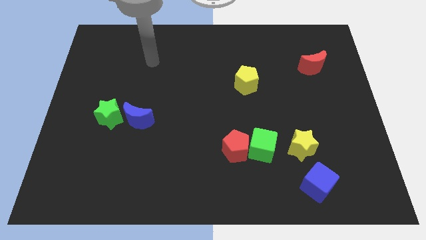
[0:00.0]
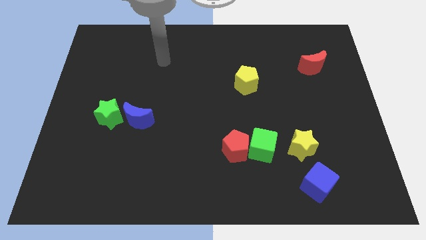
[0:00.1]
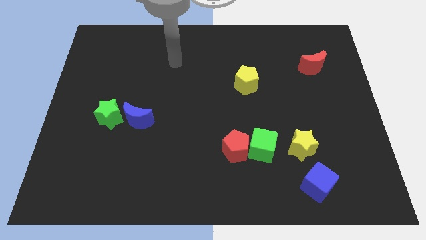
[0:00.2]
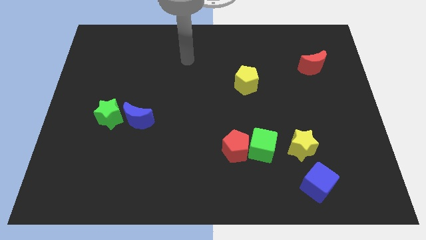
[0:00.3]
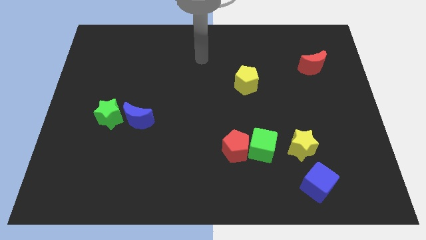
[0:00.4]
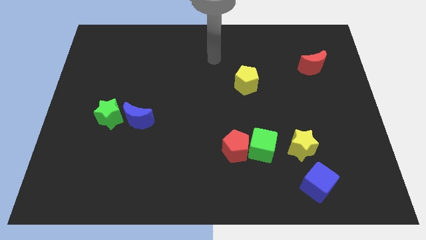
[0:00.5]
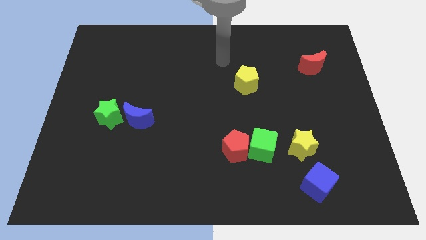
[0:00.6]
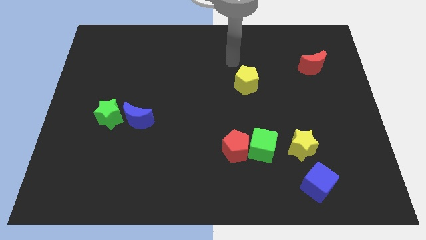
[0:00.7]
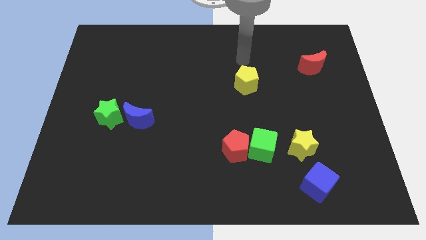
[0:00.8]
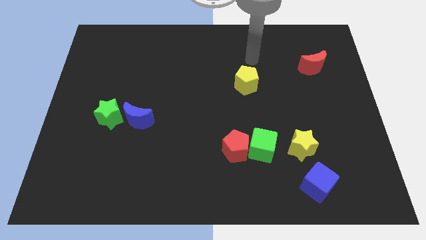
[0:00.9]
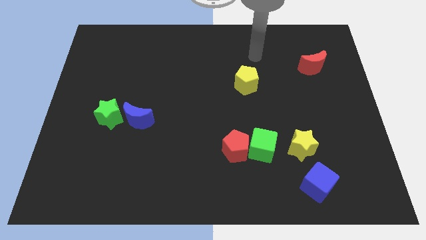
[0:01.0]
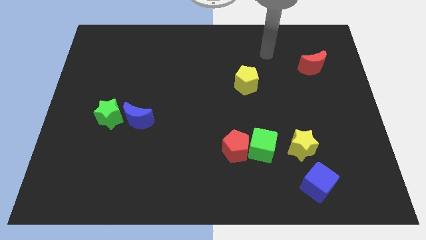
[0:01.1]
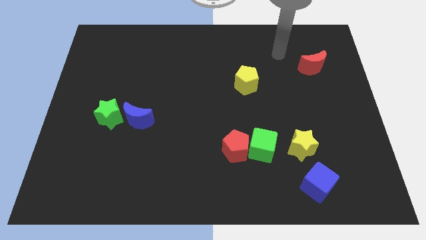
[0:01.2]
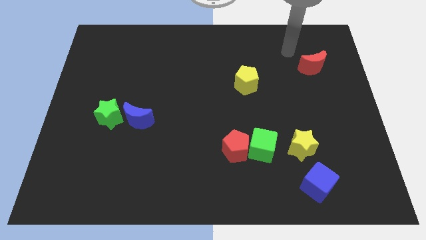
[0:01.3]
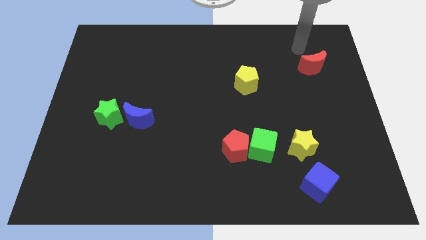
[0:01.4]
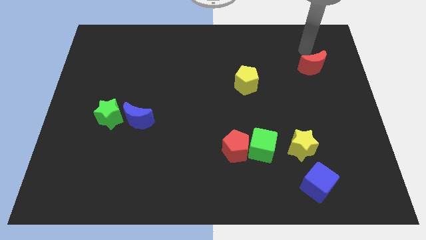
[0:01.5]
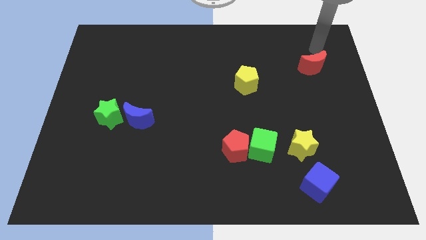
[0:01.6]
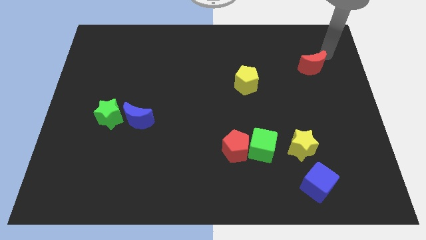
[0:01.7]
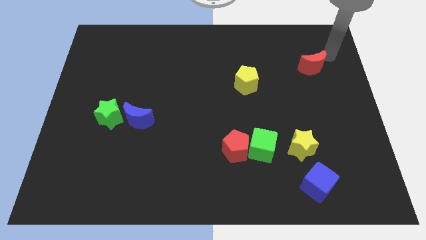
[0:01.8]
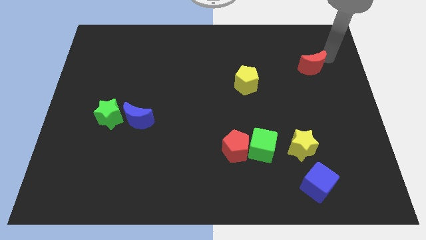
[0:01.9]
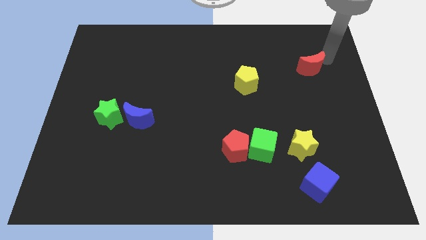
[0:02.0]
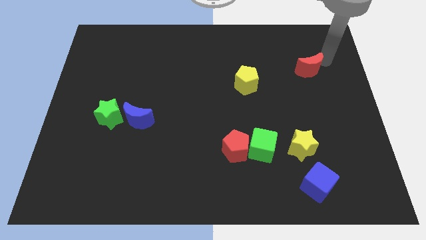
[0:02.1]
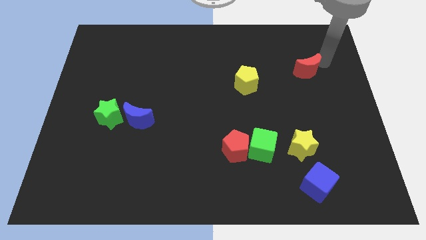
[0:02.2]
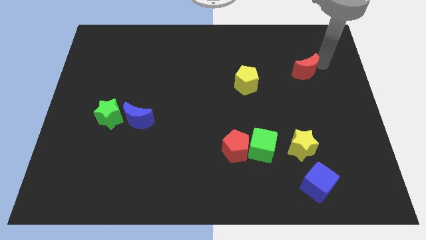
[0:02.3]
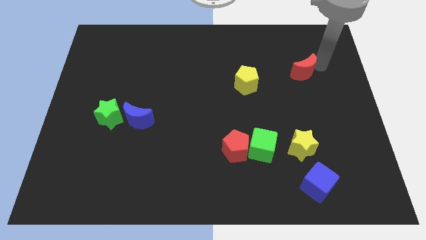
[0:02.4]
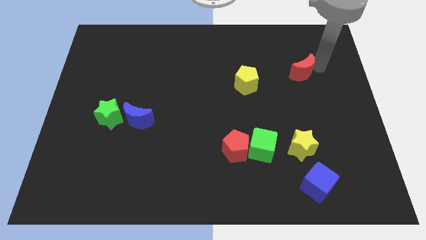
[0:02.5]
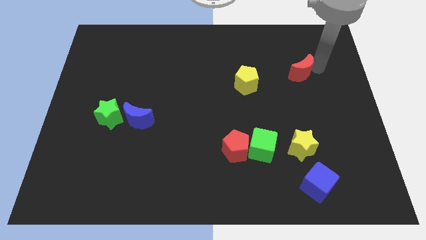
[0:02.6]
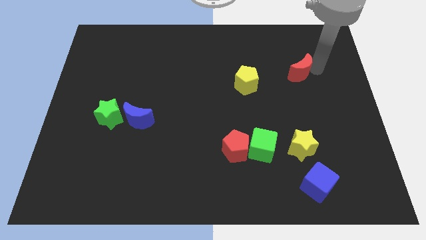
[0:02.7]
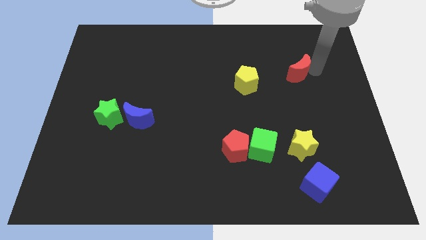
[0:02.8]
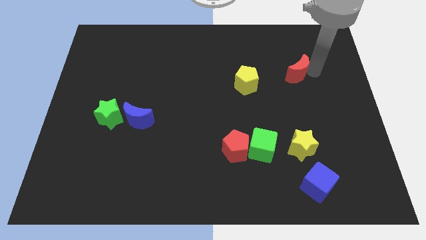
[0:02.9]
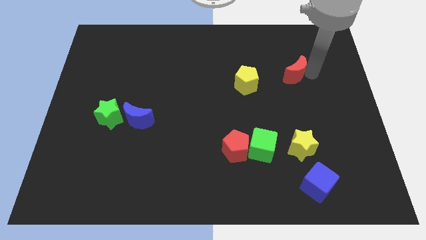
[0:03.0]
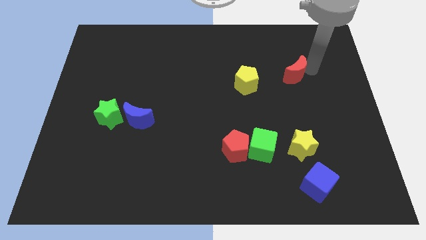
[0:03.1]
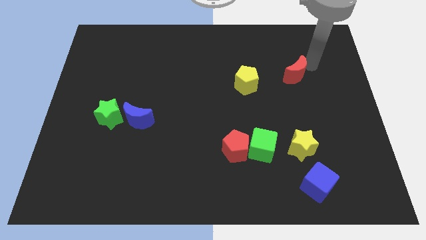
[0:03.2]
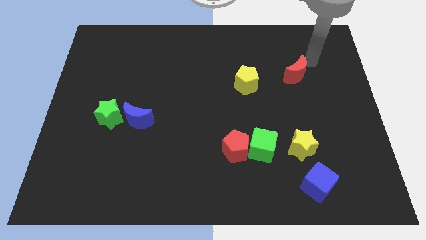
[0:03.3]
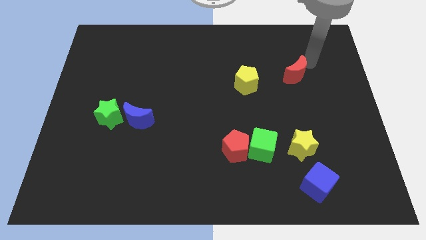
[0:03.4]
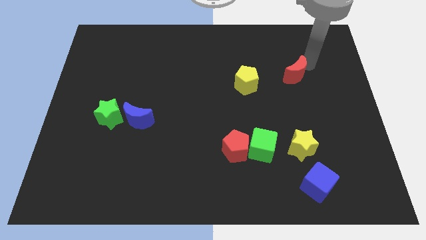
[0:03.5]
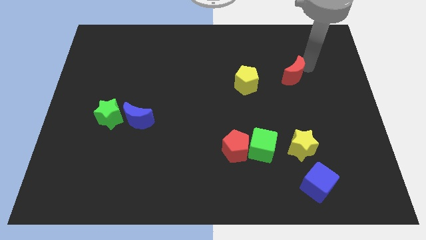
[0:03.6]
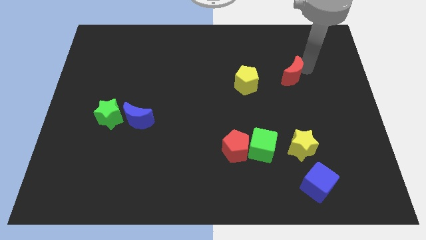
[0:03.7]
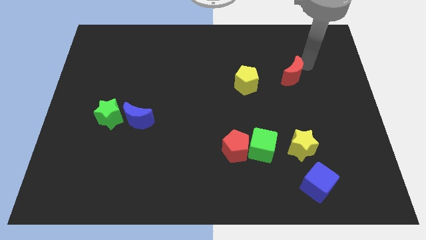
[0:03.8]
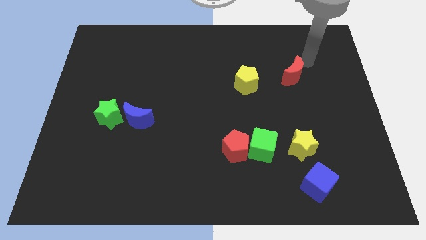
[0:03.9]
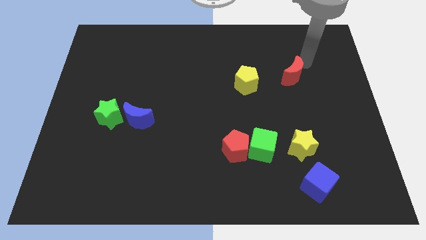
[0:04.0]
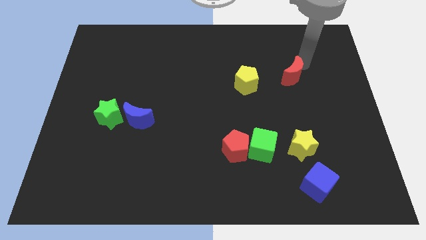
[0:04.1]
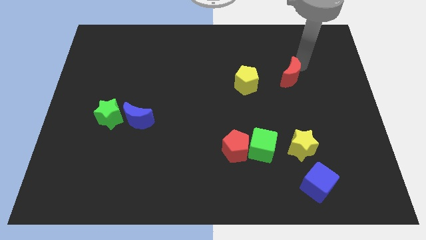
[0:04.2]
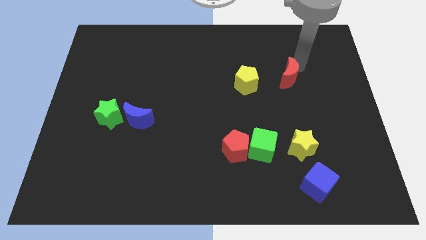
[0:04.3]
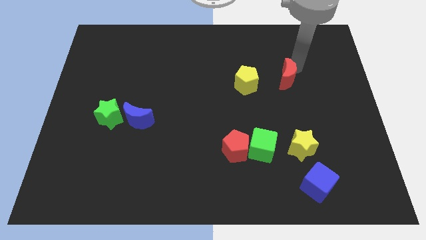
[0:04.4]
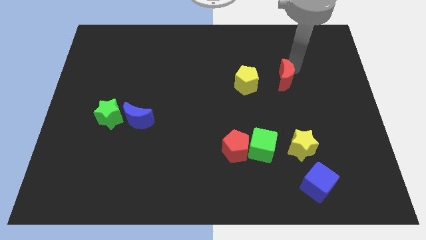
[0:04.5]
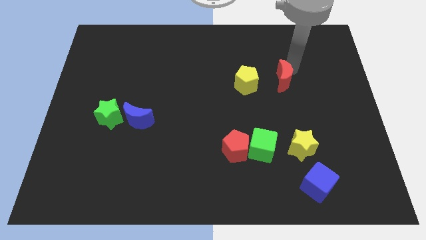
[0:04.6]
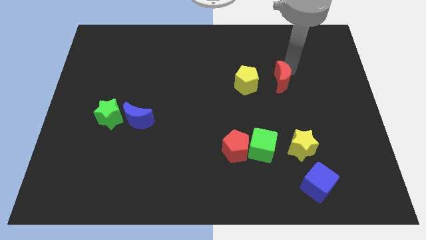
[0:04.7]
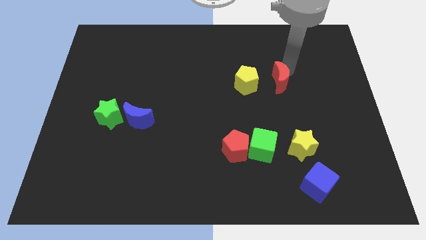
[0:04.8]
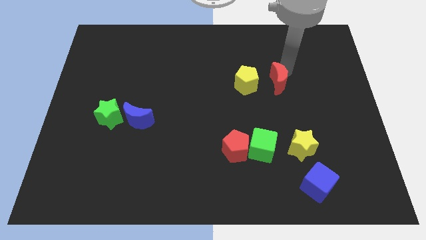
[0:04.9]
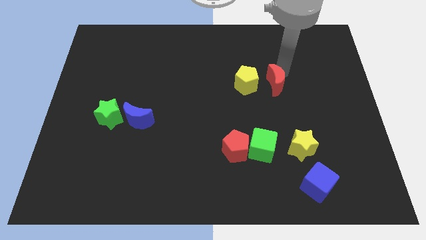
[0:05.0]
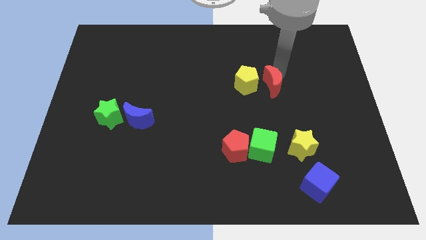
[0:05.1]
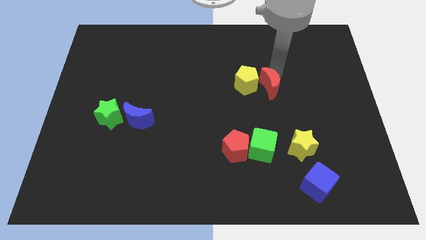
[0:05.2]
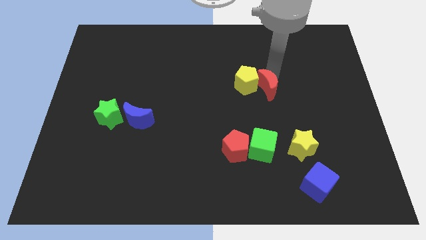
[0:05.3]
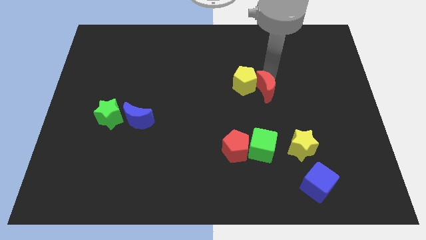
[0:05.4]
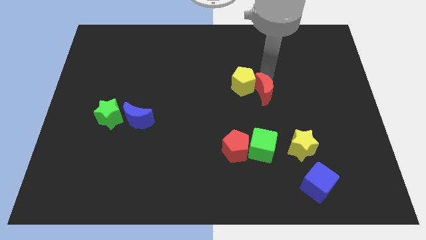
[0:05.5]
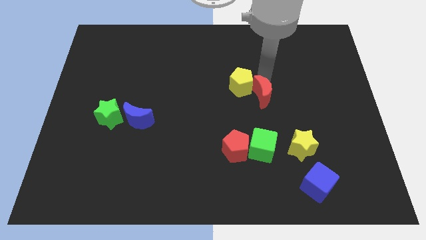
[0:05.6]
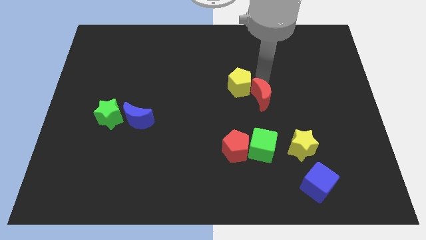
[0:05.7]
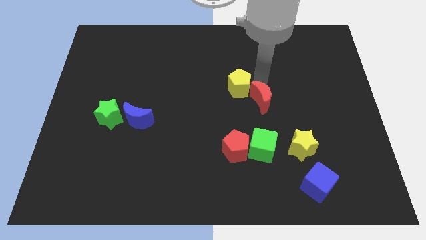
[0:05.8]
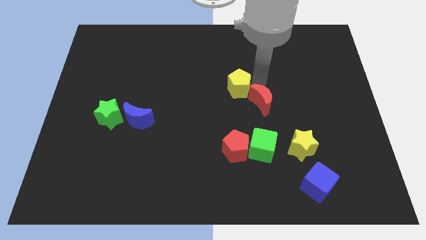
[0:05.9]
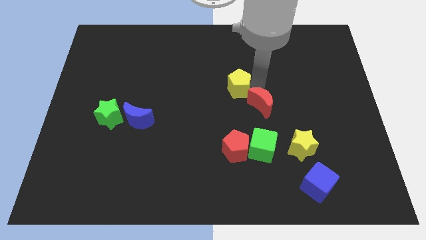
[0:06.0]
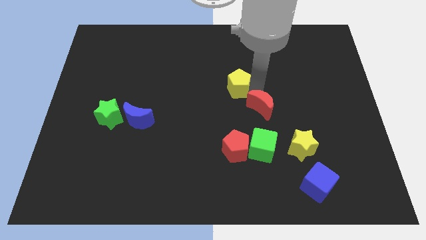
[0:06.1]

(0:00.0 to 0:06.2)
put the red moon to the bottom of the yellow pentagon

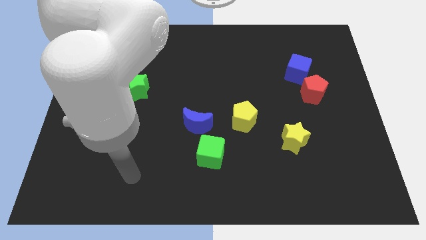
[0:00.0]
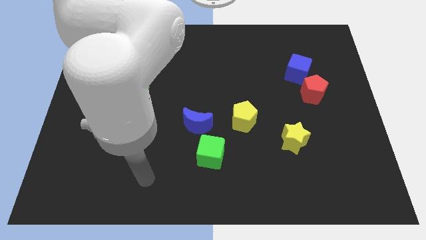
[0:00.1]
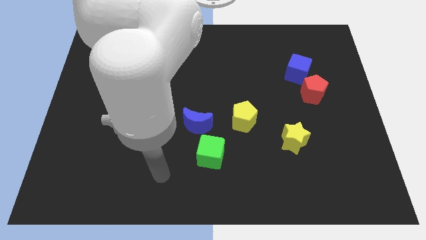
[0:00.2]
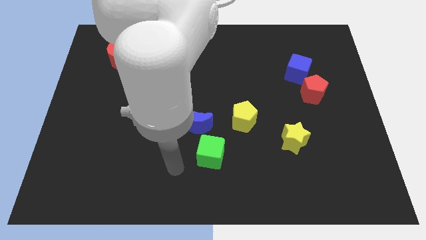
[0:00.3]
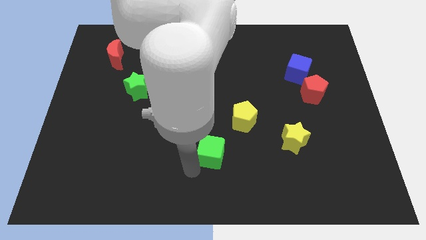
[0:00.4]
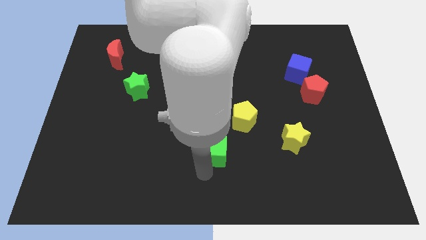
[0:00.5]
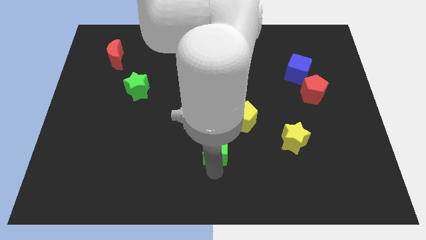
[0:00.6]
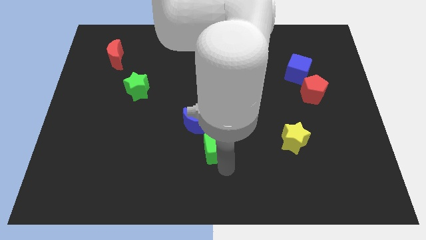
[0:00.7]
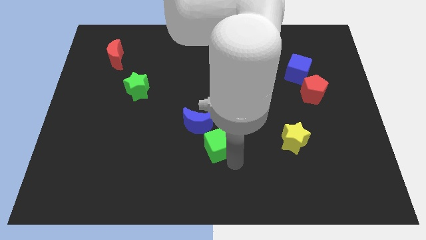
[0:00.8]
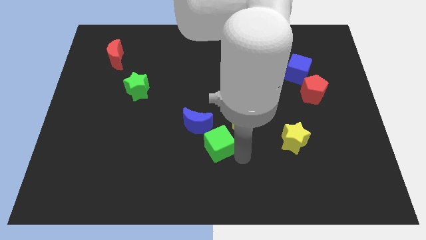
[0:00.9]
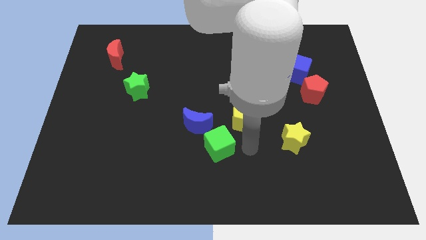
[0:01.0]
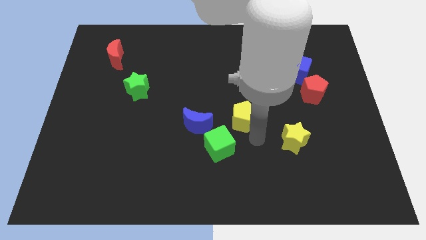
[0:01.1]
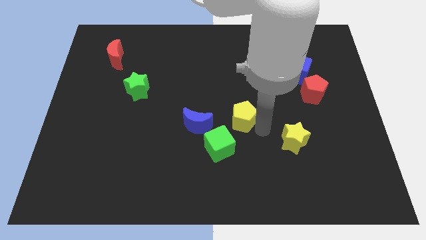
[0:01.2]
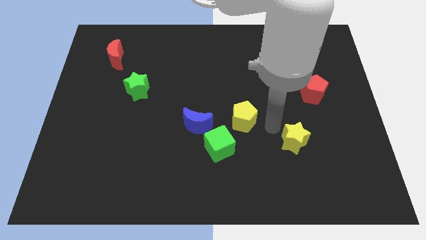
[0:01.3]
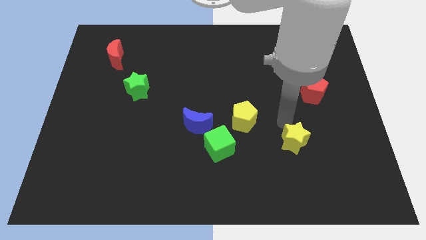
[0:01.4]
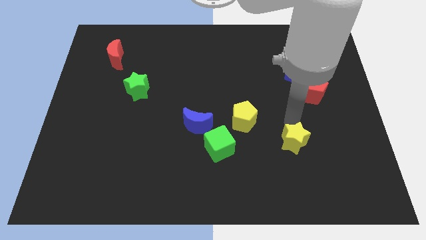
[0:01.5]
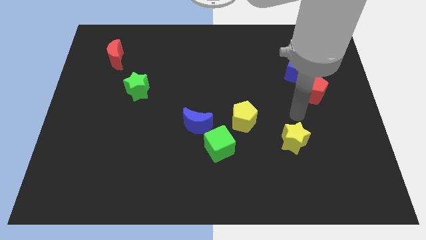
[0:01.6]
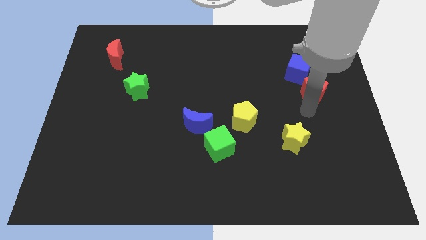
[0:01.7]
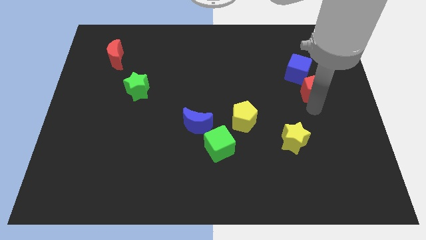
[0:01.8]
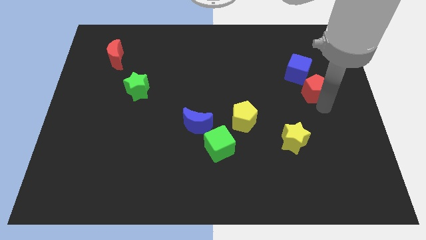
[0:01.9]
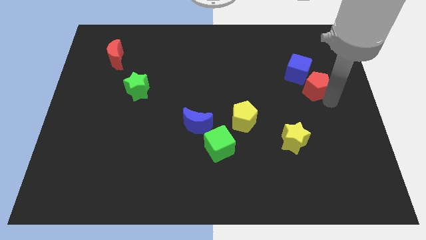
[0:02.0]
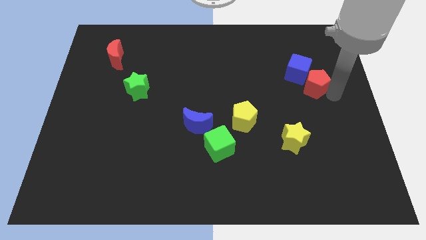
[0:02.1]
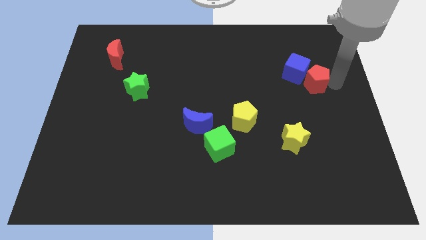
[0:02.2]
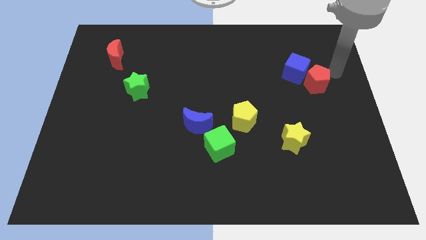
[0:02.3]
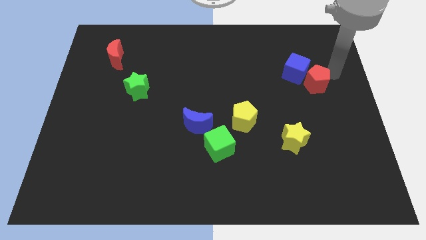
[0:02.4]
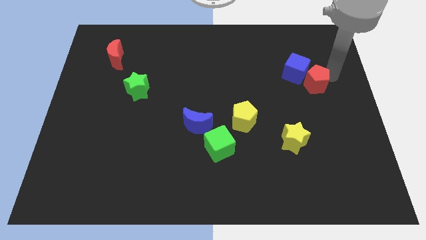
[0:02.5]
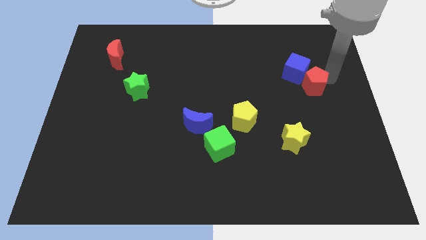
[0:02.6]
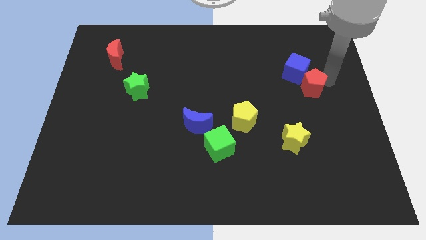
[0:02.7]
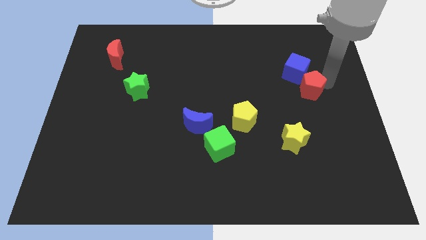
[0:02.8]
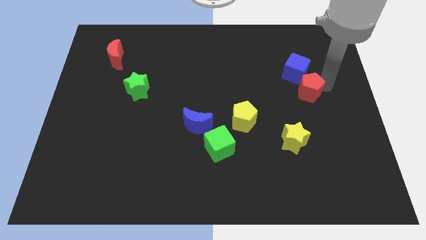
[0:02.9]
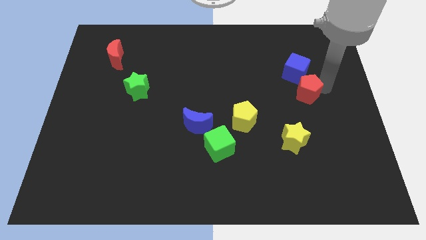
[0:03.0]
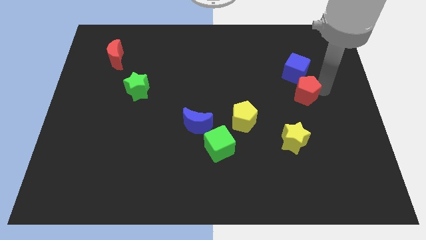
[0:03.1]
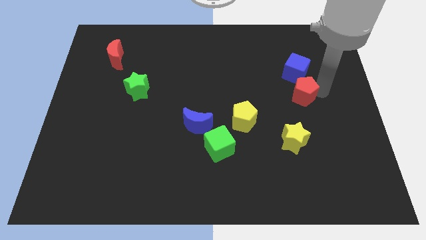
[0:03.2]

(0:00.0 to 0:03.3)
push the red pentagon to the top side of the yellow star
